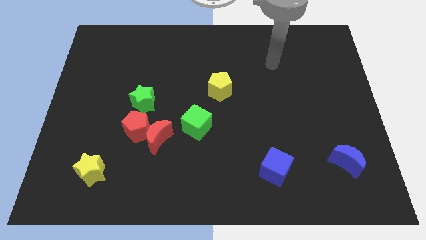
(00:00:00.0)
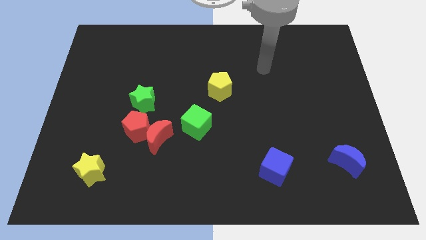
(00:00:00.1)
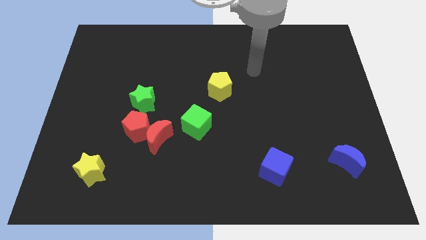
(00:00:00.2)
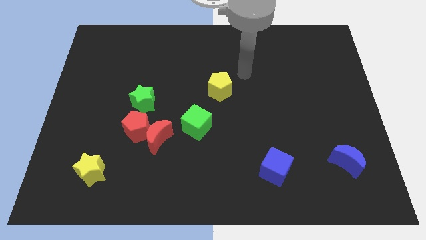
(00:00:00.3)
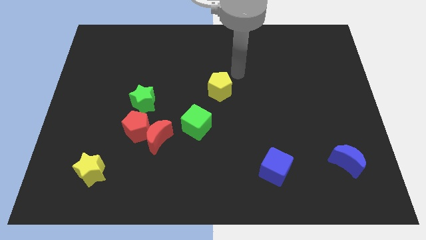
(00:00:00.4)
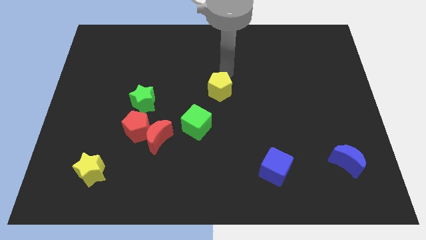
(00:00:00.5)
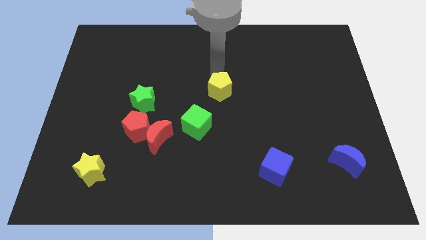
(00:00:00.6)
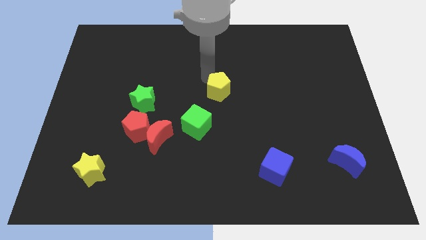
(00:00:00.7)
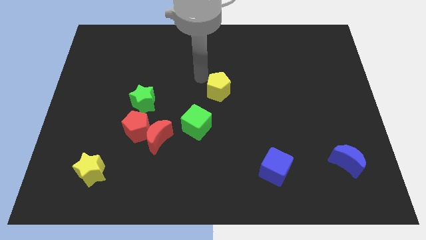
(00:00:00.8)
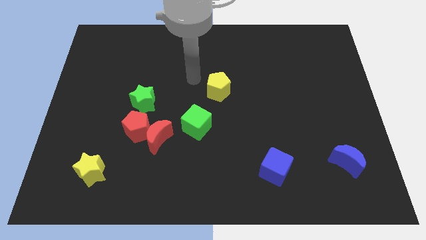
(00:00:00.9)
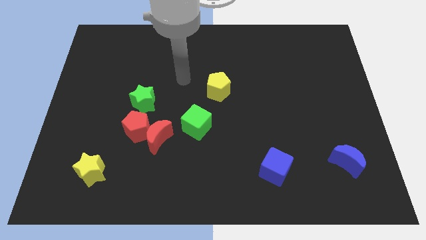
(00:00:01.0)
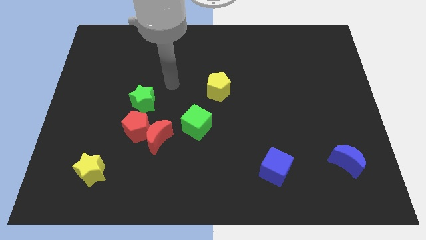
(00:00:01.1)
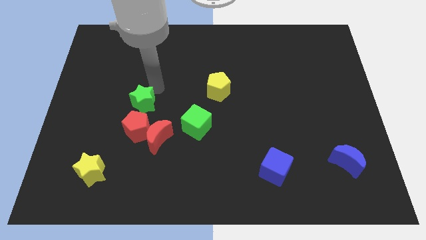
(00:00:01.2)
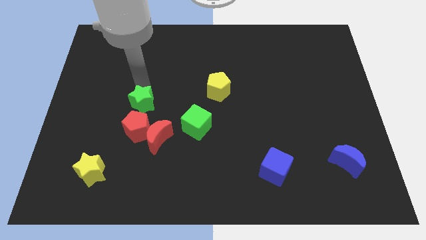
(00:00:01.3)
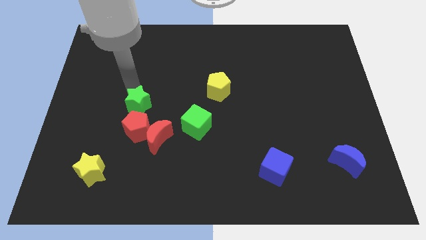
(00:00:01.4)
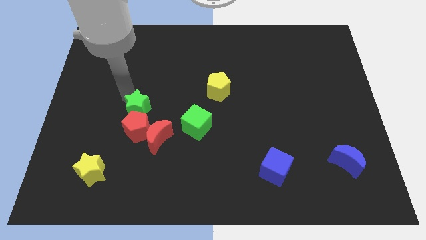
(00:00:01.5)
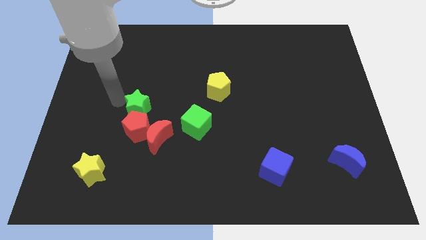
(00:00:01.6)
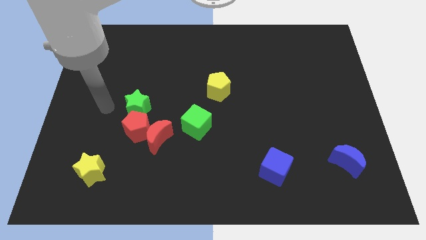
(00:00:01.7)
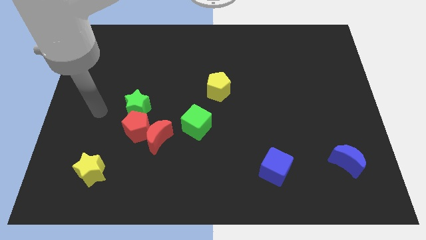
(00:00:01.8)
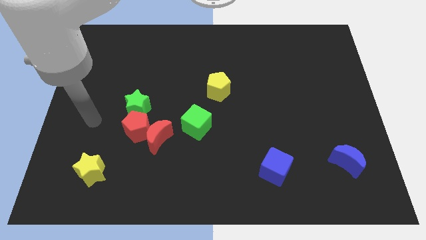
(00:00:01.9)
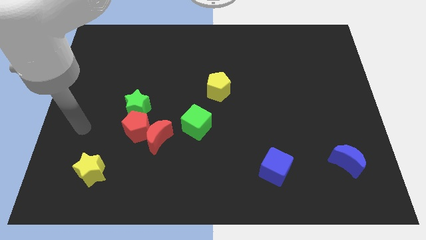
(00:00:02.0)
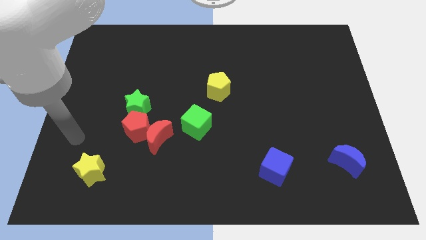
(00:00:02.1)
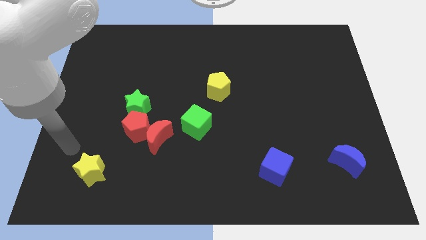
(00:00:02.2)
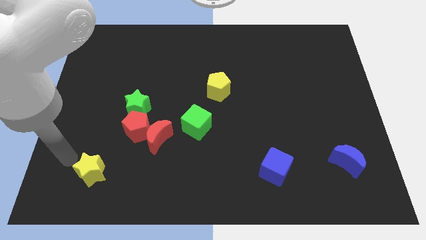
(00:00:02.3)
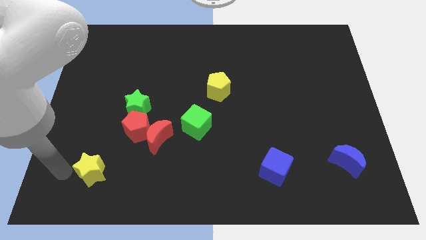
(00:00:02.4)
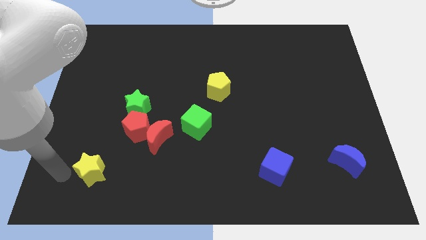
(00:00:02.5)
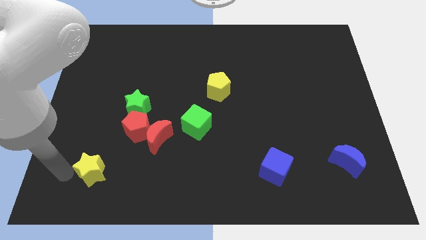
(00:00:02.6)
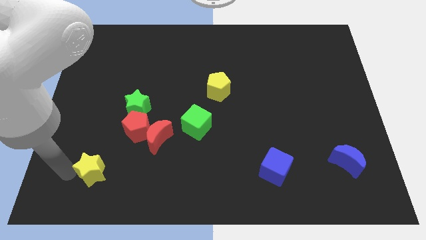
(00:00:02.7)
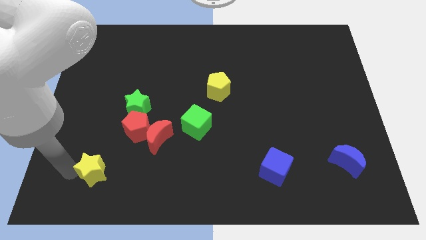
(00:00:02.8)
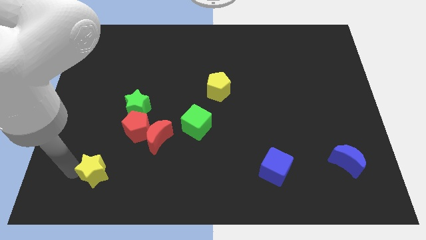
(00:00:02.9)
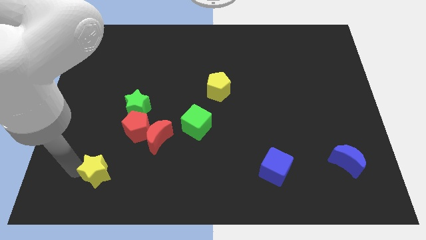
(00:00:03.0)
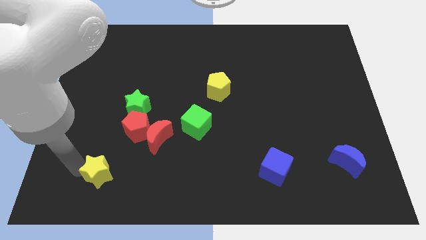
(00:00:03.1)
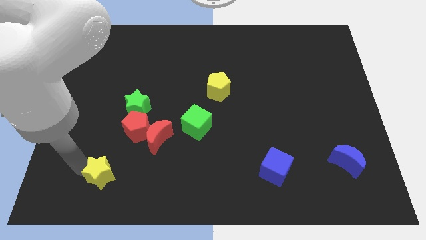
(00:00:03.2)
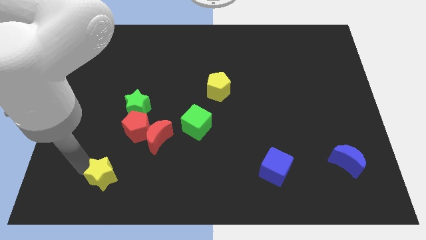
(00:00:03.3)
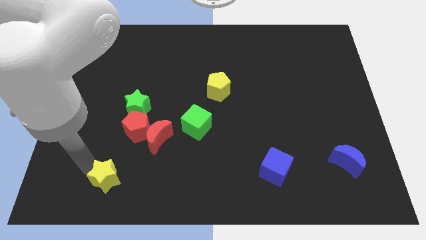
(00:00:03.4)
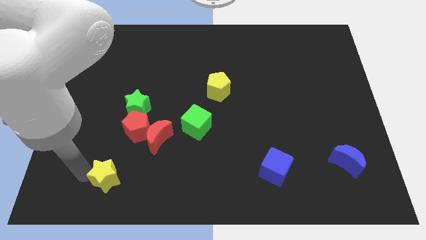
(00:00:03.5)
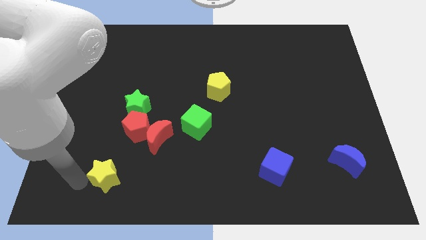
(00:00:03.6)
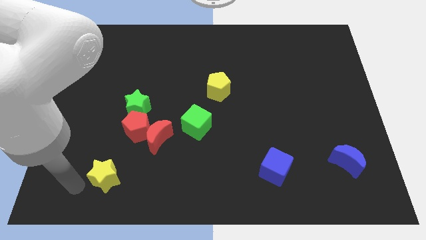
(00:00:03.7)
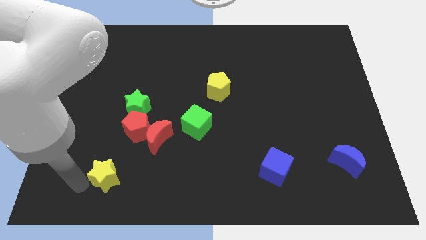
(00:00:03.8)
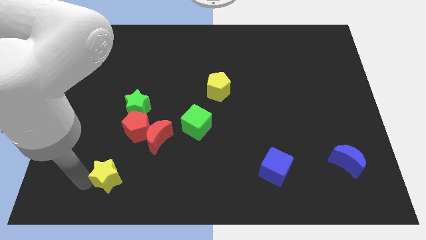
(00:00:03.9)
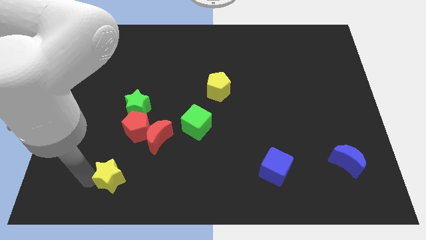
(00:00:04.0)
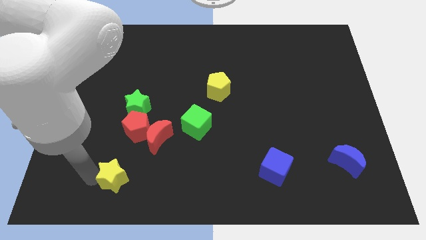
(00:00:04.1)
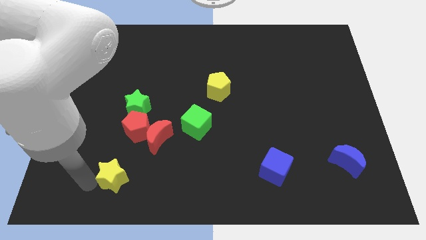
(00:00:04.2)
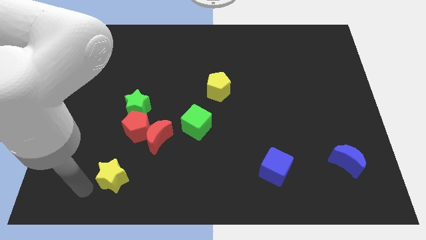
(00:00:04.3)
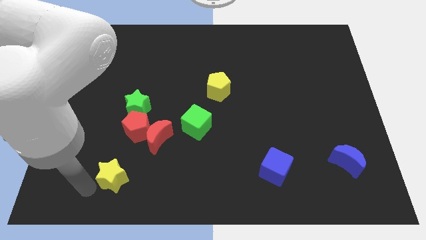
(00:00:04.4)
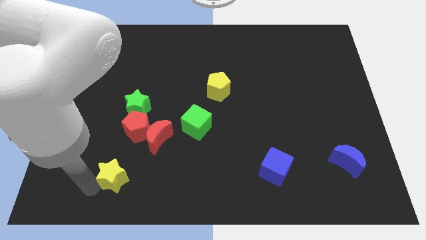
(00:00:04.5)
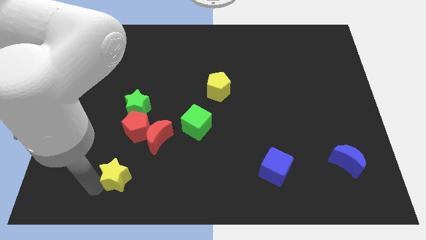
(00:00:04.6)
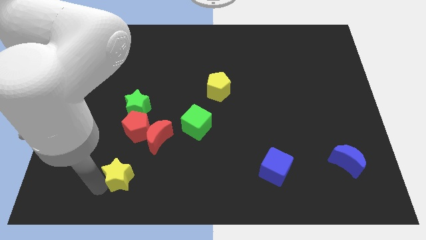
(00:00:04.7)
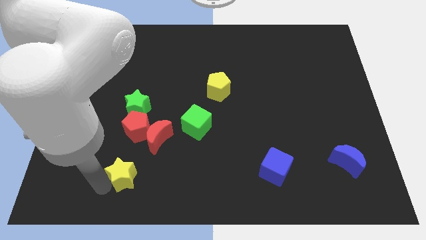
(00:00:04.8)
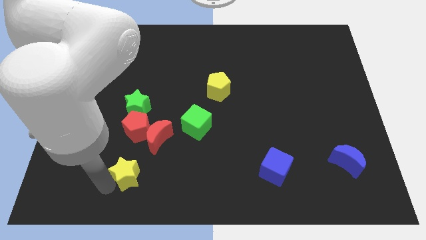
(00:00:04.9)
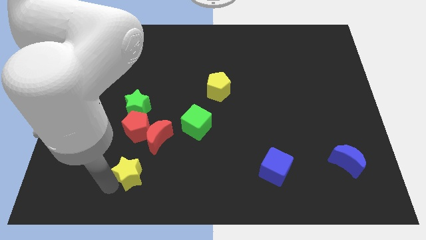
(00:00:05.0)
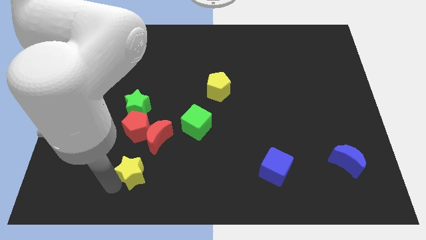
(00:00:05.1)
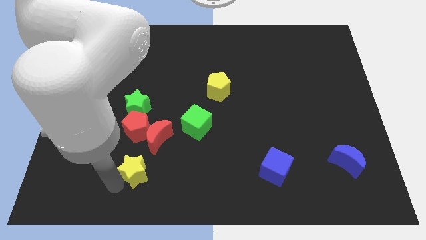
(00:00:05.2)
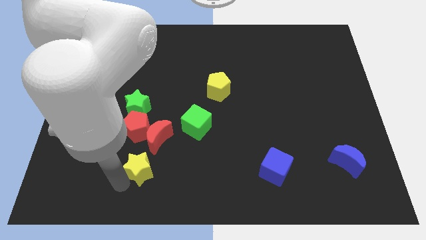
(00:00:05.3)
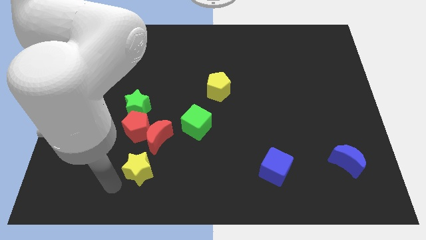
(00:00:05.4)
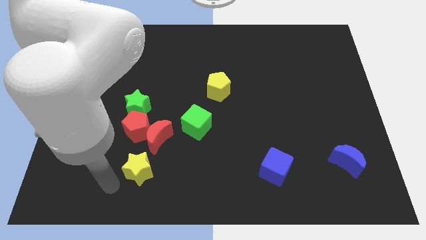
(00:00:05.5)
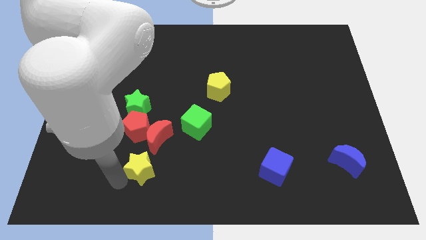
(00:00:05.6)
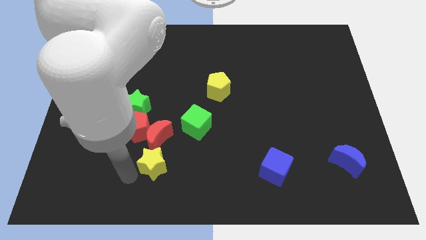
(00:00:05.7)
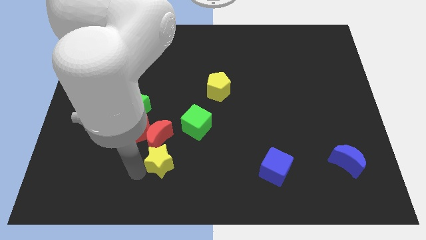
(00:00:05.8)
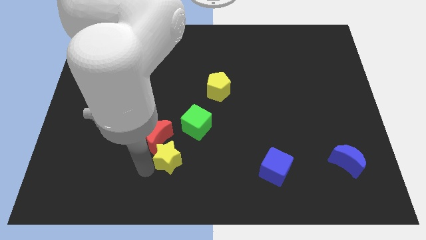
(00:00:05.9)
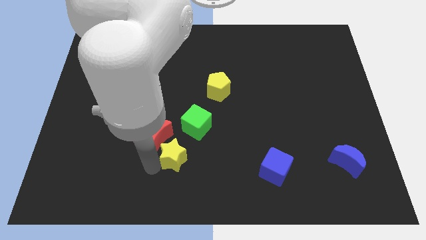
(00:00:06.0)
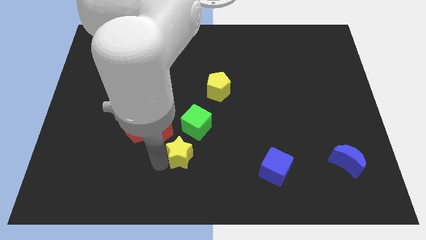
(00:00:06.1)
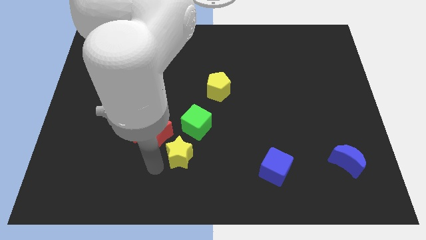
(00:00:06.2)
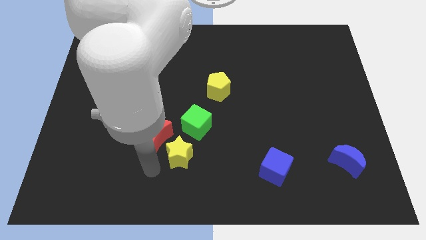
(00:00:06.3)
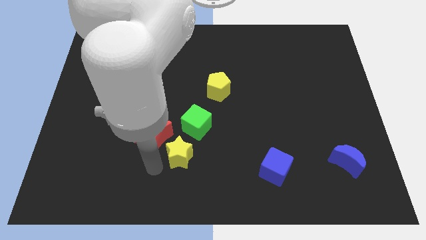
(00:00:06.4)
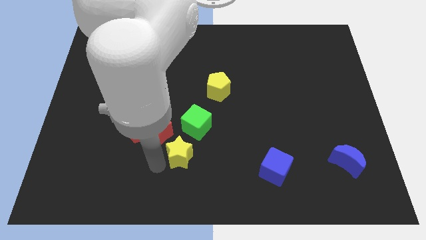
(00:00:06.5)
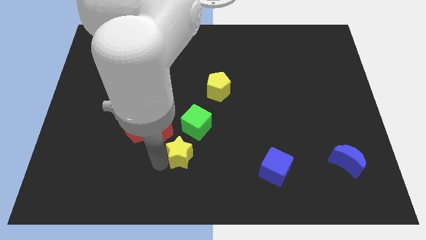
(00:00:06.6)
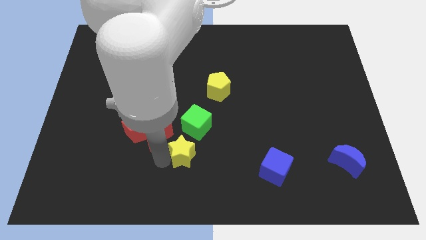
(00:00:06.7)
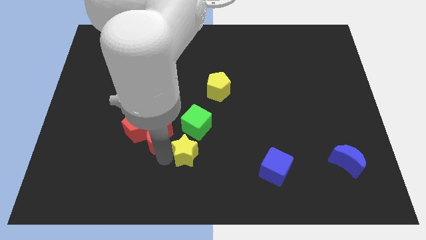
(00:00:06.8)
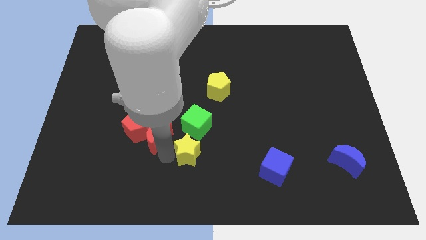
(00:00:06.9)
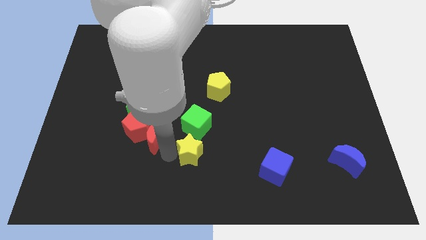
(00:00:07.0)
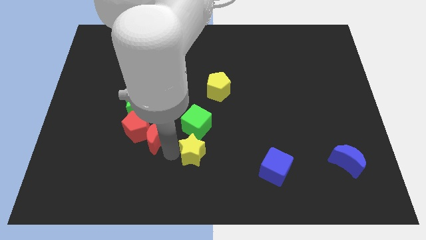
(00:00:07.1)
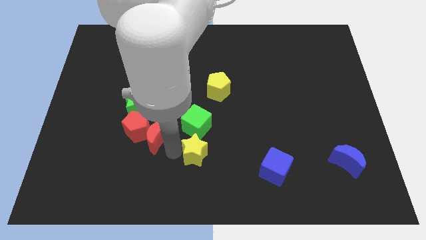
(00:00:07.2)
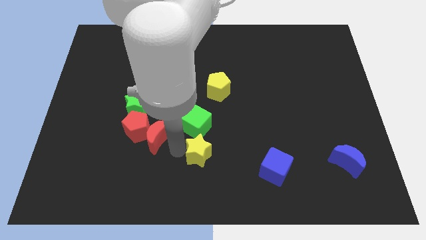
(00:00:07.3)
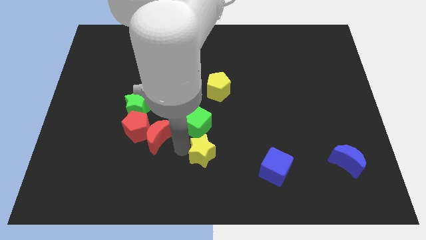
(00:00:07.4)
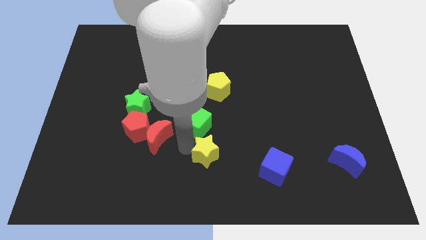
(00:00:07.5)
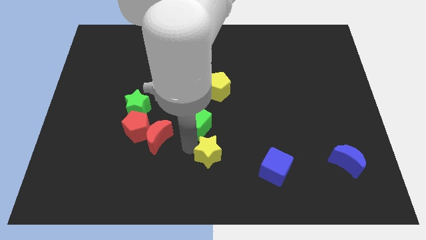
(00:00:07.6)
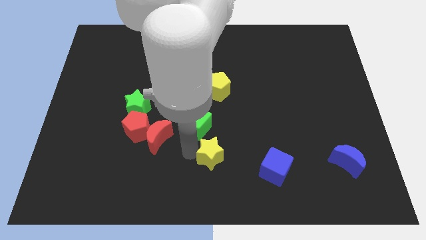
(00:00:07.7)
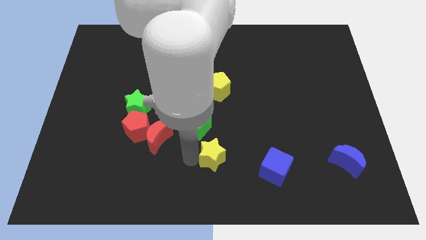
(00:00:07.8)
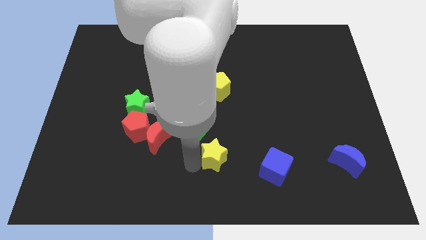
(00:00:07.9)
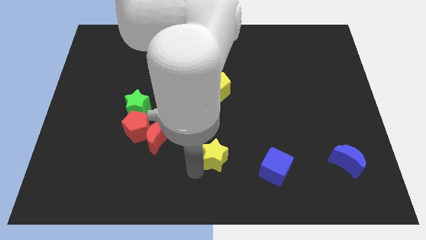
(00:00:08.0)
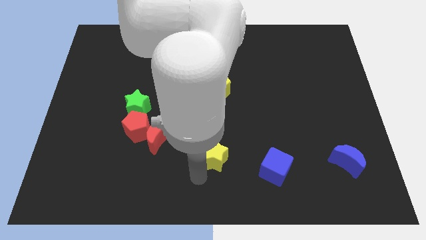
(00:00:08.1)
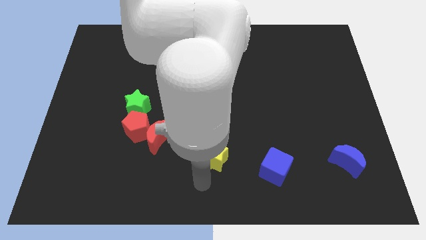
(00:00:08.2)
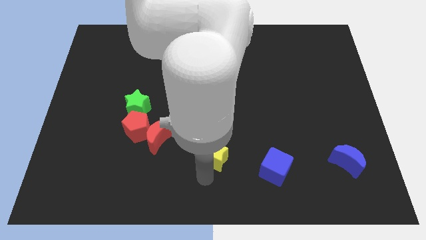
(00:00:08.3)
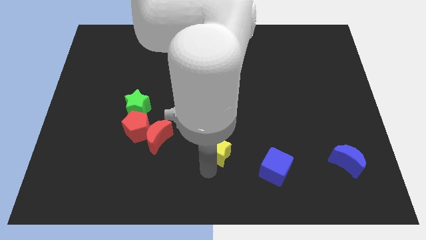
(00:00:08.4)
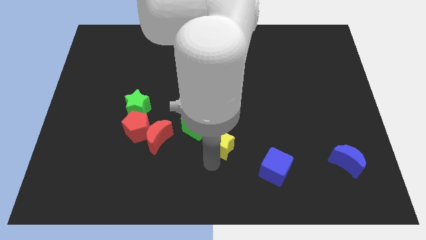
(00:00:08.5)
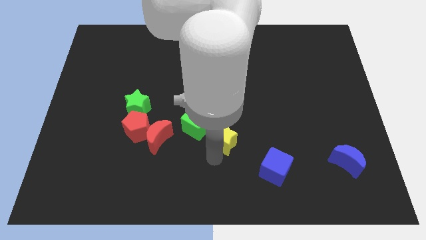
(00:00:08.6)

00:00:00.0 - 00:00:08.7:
push the yellow star to the right of the green cube

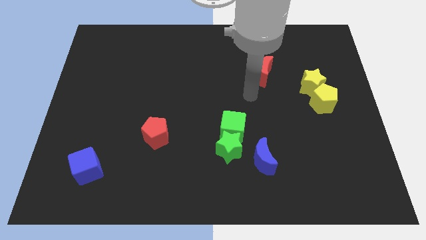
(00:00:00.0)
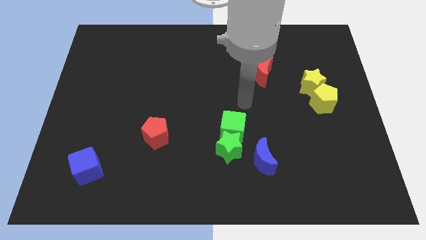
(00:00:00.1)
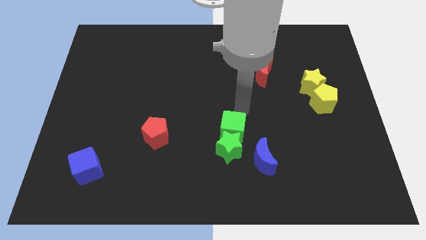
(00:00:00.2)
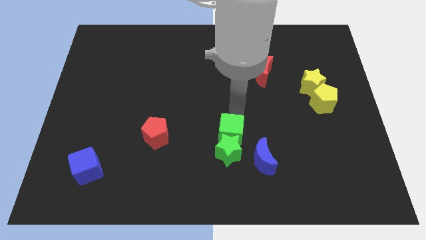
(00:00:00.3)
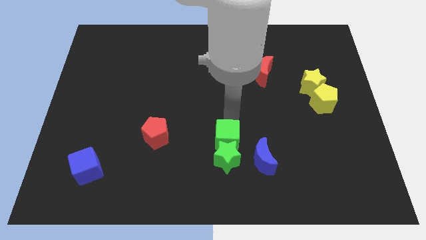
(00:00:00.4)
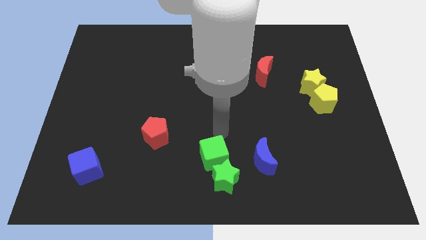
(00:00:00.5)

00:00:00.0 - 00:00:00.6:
move the green star to the bottom left side of the blue moon
